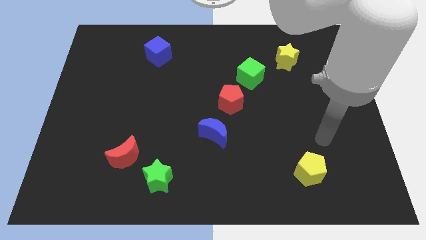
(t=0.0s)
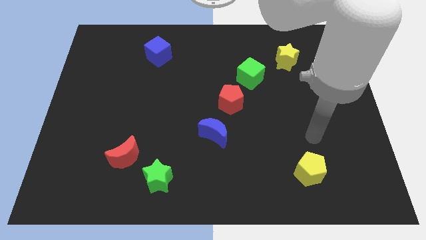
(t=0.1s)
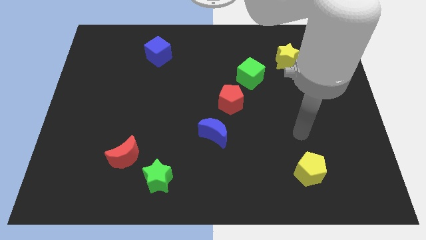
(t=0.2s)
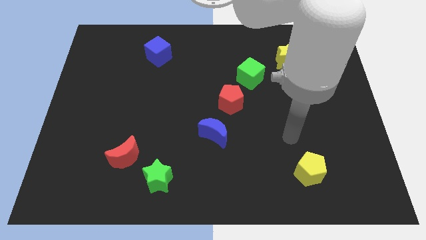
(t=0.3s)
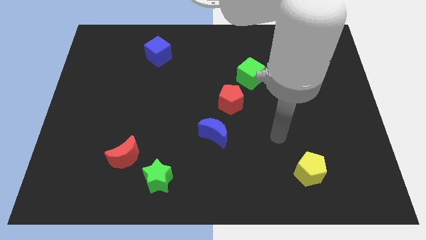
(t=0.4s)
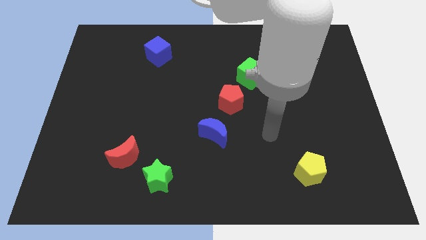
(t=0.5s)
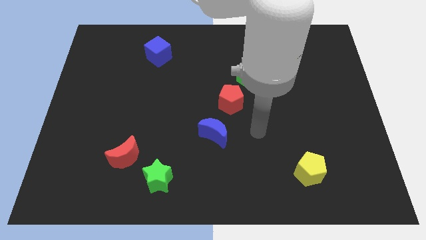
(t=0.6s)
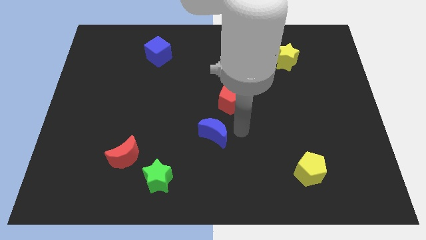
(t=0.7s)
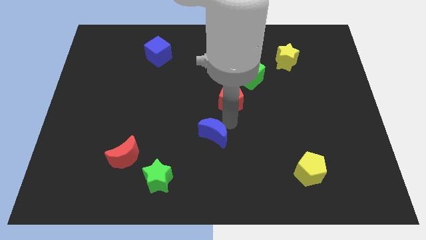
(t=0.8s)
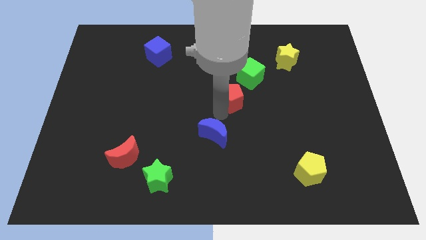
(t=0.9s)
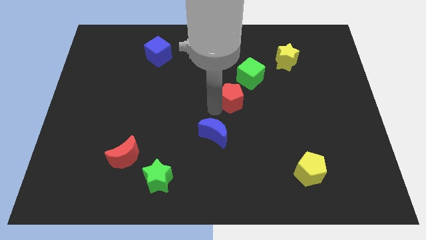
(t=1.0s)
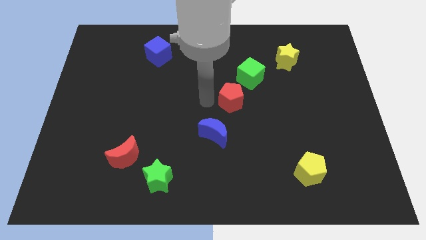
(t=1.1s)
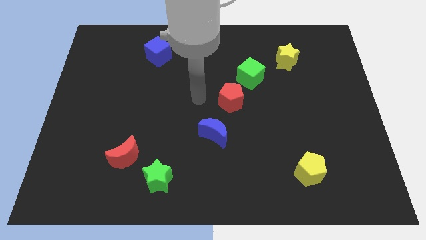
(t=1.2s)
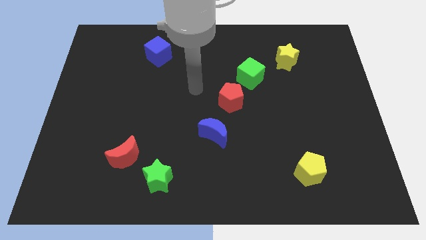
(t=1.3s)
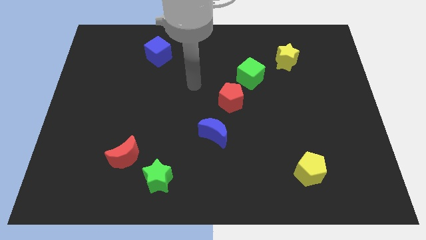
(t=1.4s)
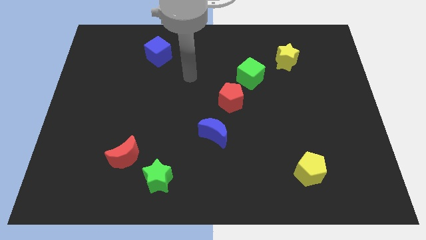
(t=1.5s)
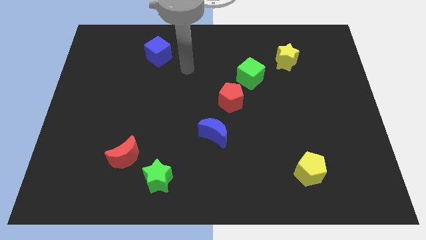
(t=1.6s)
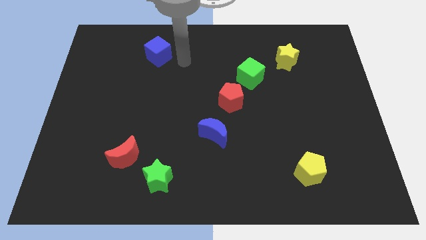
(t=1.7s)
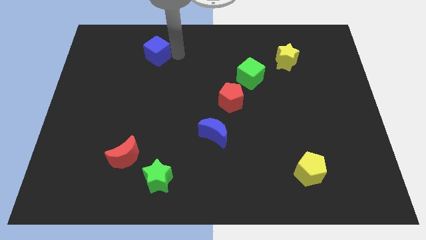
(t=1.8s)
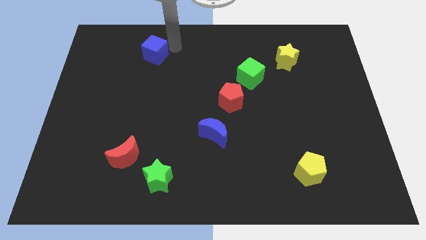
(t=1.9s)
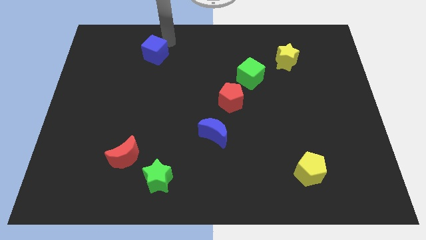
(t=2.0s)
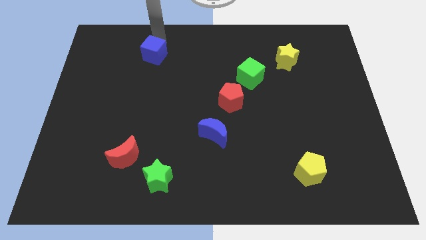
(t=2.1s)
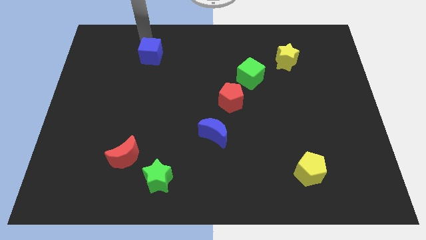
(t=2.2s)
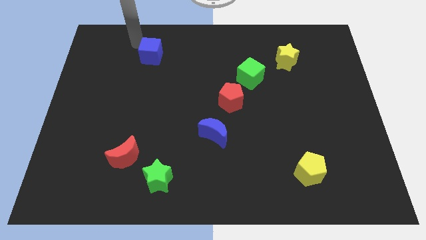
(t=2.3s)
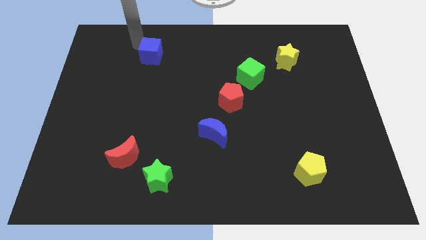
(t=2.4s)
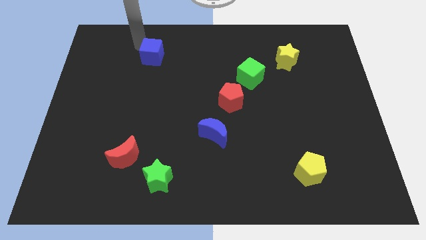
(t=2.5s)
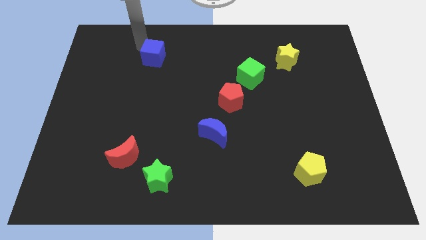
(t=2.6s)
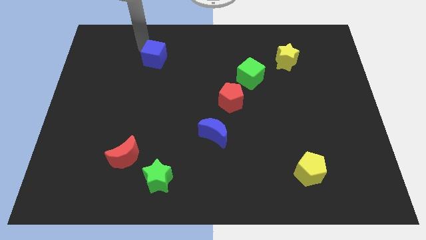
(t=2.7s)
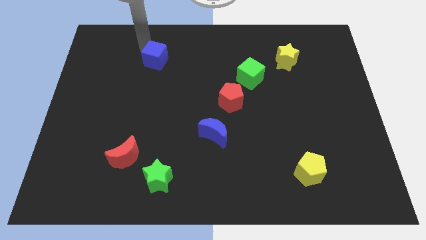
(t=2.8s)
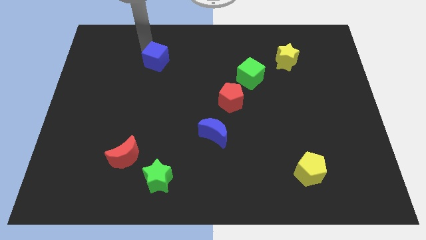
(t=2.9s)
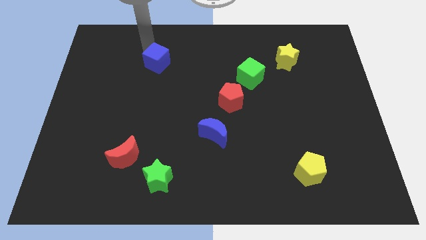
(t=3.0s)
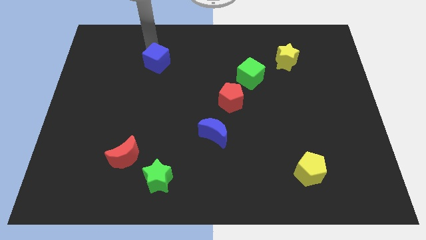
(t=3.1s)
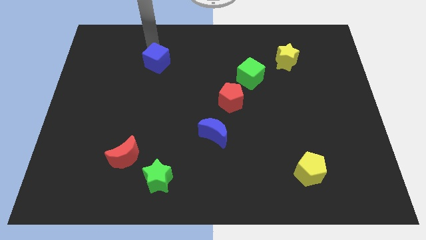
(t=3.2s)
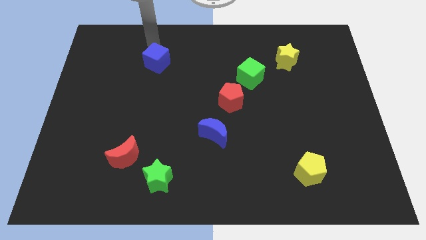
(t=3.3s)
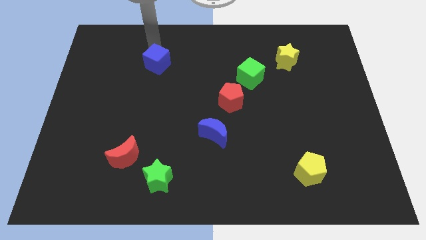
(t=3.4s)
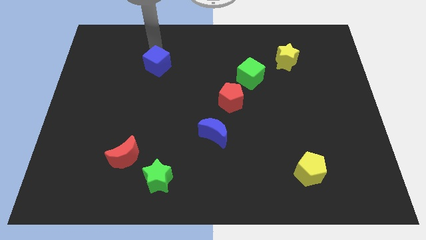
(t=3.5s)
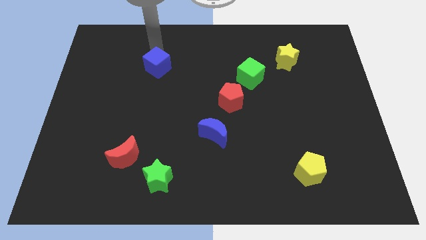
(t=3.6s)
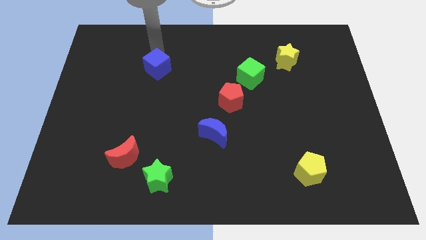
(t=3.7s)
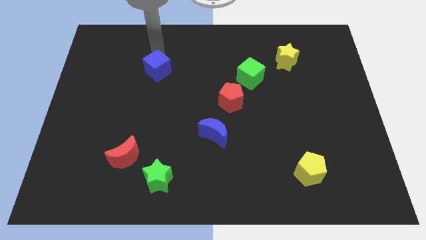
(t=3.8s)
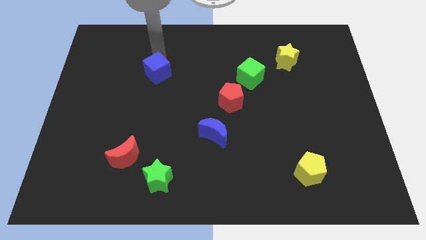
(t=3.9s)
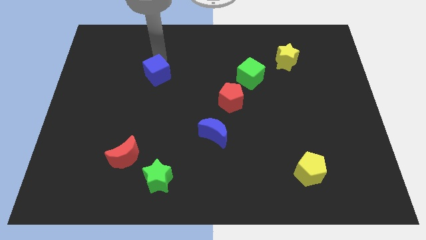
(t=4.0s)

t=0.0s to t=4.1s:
push the blue cube downwards somewhat

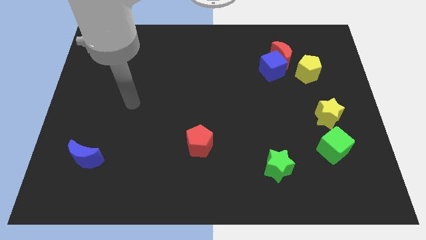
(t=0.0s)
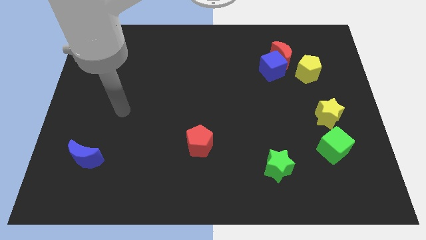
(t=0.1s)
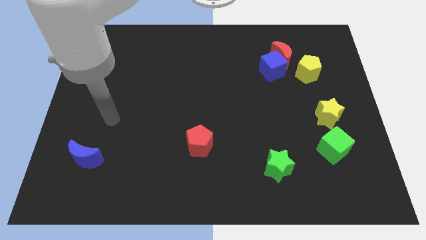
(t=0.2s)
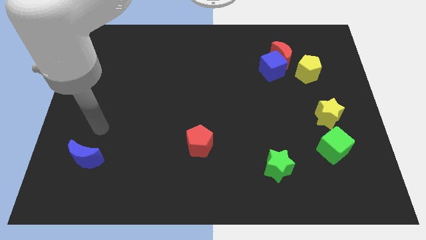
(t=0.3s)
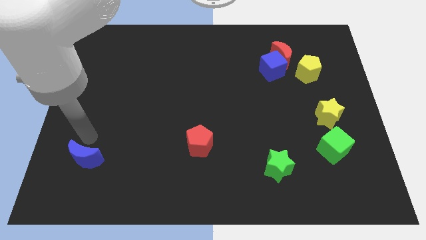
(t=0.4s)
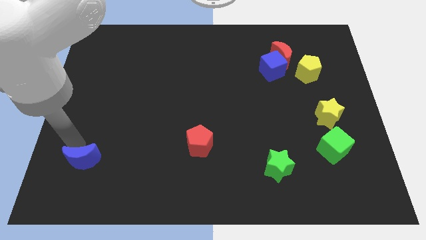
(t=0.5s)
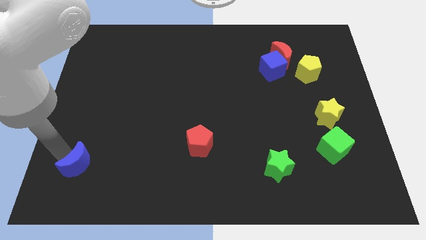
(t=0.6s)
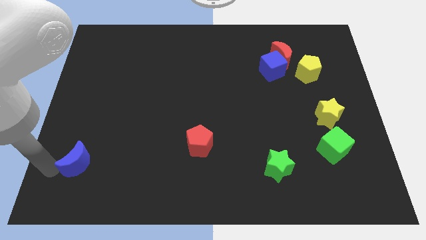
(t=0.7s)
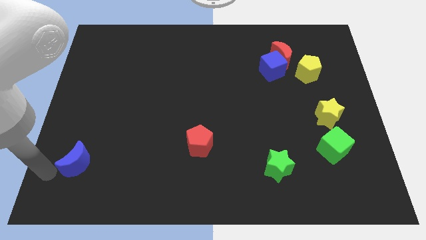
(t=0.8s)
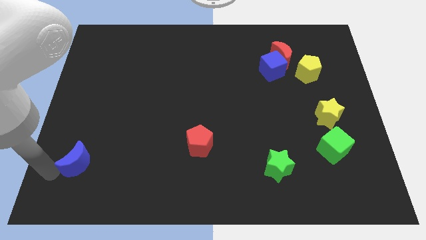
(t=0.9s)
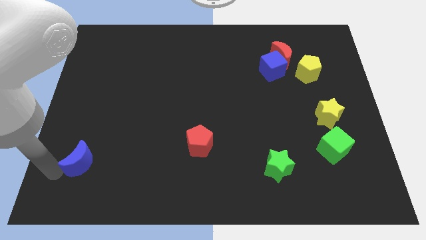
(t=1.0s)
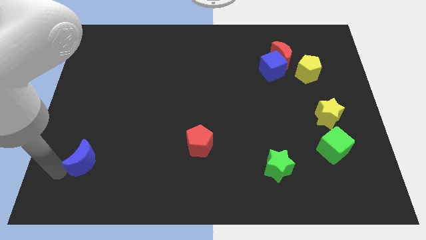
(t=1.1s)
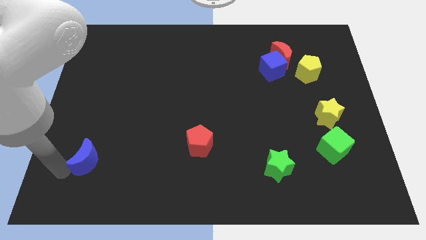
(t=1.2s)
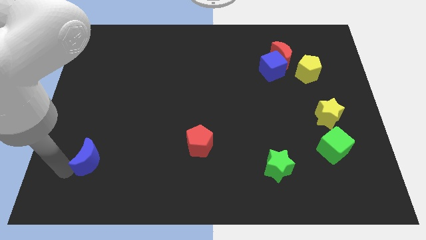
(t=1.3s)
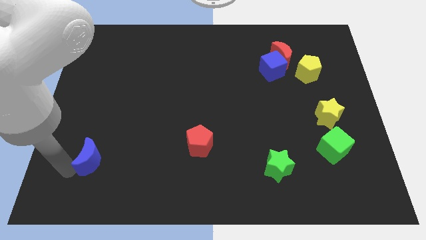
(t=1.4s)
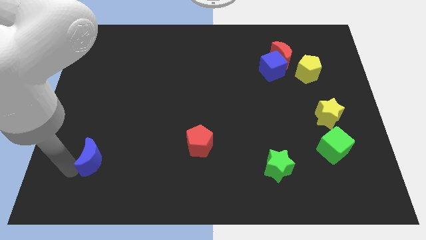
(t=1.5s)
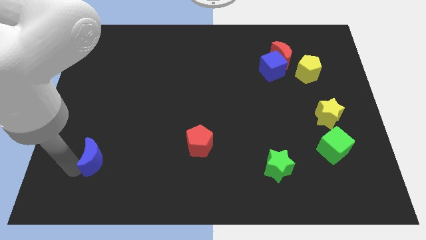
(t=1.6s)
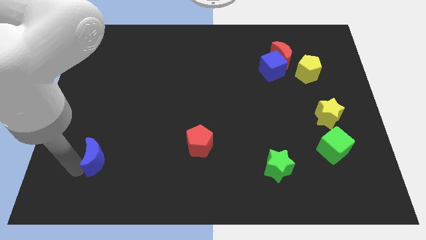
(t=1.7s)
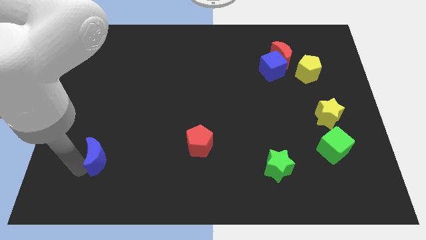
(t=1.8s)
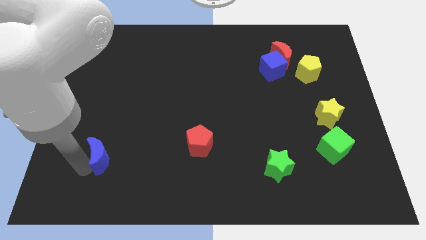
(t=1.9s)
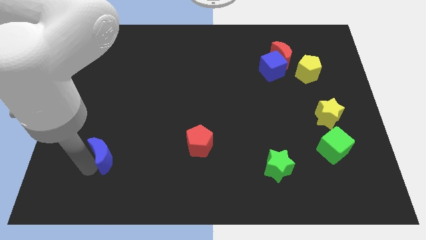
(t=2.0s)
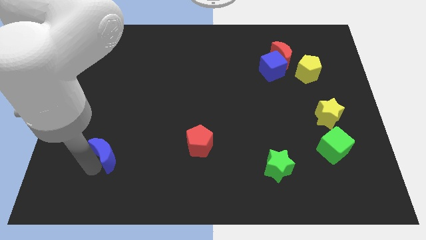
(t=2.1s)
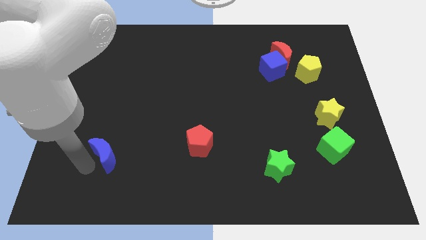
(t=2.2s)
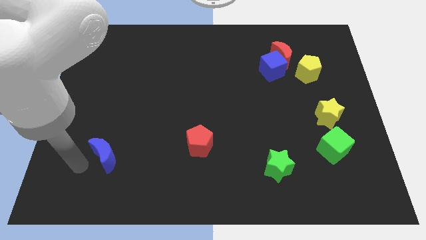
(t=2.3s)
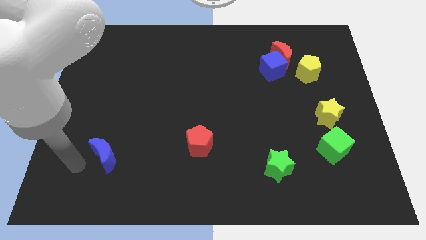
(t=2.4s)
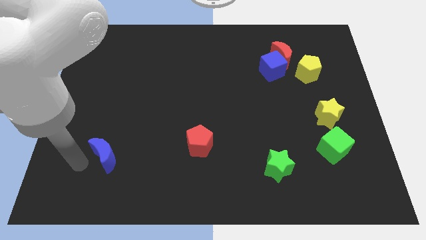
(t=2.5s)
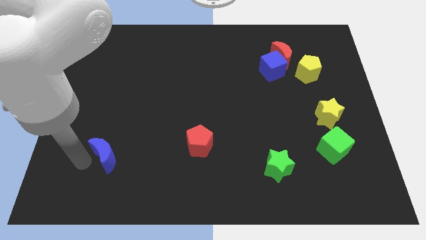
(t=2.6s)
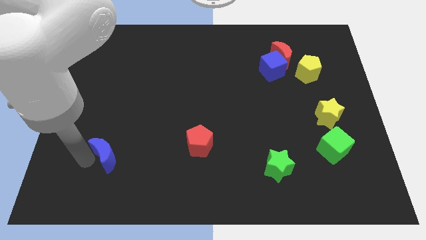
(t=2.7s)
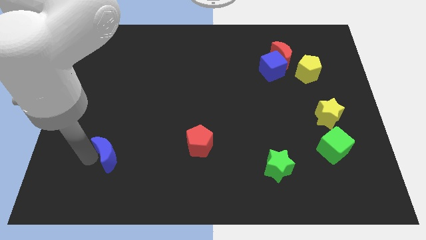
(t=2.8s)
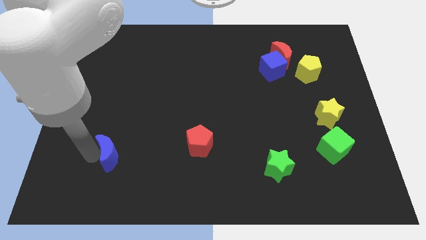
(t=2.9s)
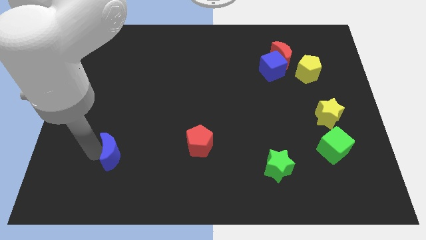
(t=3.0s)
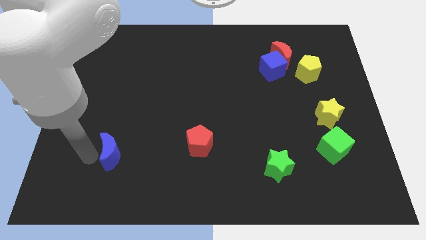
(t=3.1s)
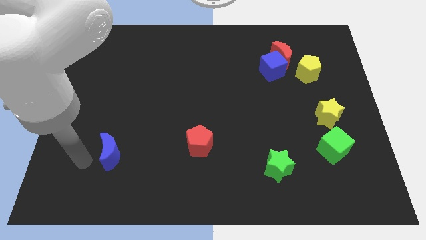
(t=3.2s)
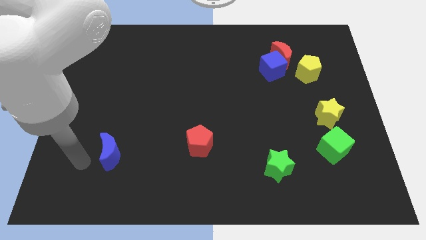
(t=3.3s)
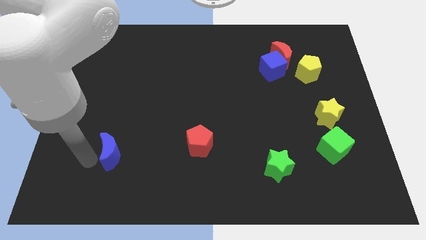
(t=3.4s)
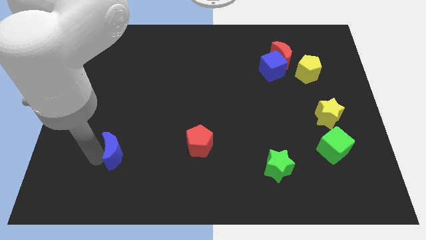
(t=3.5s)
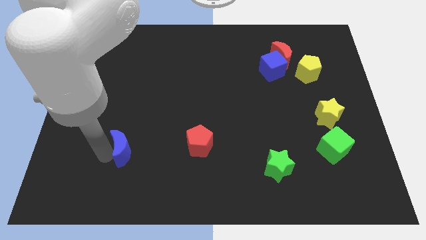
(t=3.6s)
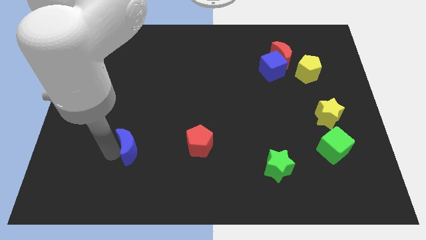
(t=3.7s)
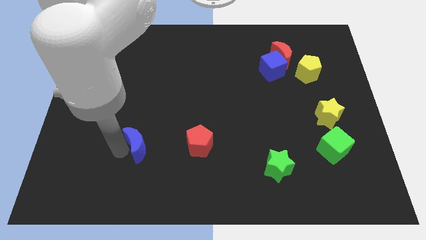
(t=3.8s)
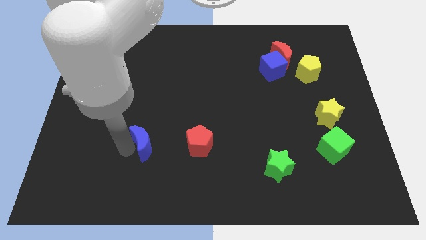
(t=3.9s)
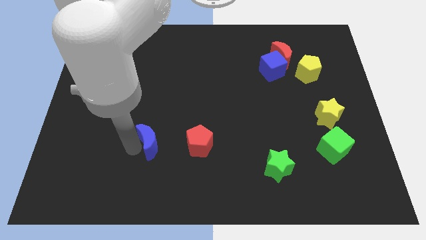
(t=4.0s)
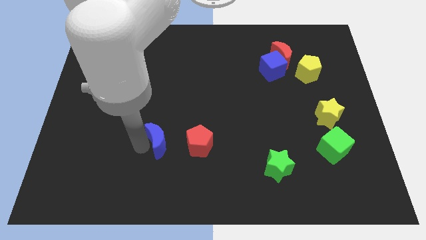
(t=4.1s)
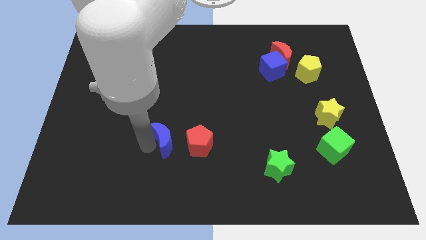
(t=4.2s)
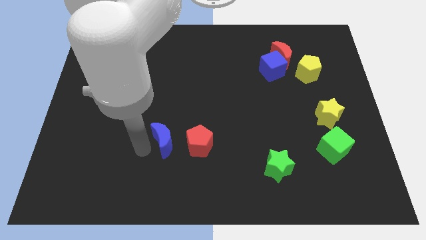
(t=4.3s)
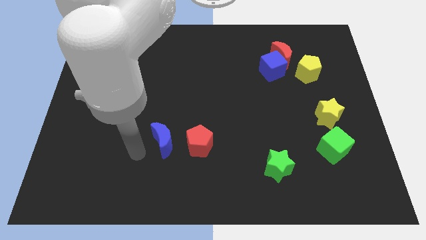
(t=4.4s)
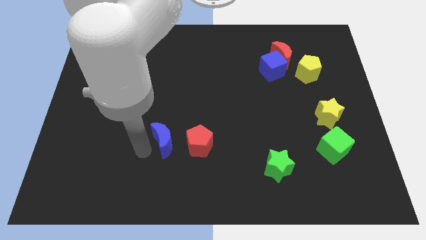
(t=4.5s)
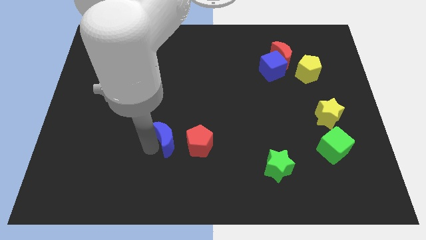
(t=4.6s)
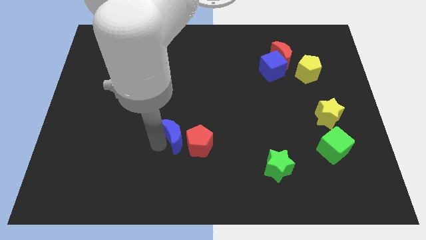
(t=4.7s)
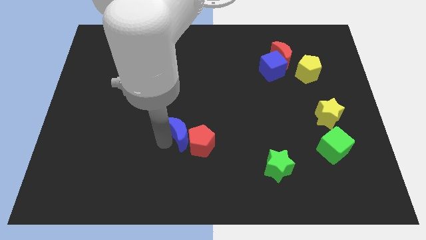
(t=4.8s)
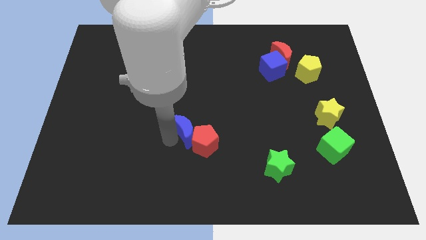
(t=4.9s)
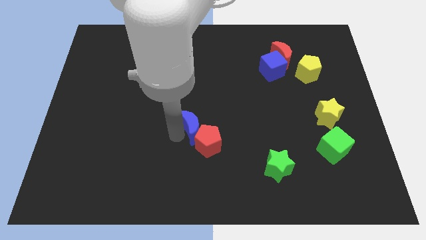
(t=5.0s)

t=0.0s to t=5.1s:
slide the blue moon to the right
